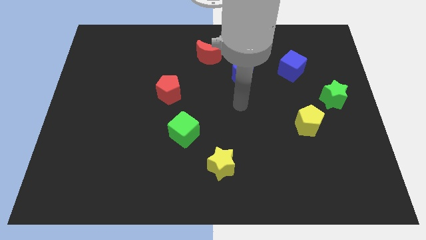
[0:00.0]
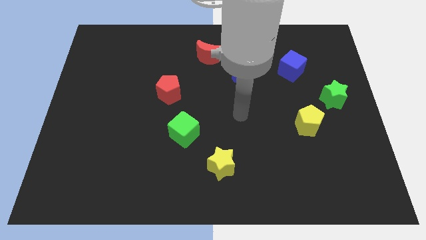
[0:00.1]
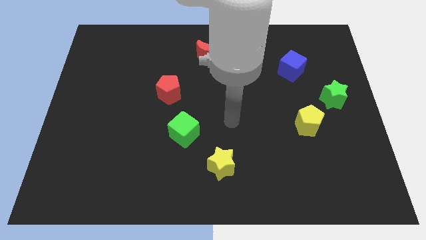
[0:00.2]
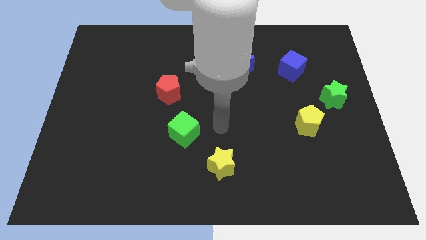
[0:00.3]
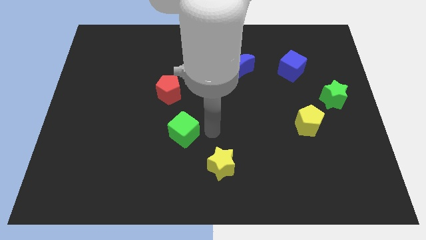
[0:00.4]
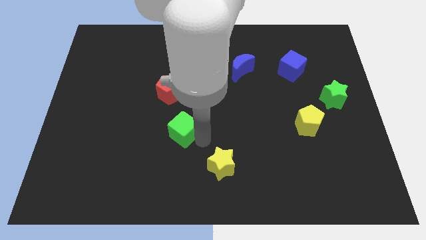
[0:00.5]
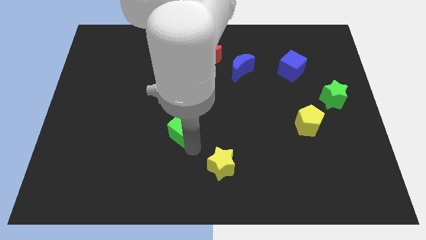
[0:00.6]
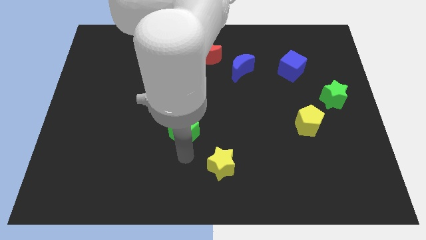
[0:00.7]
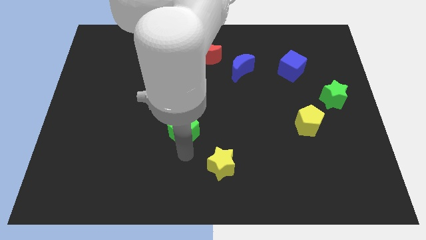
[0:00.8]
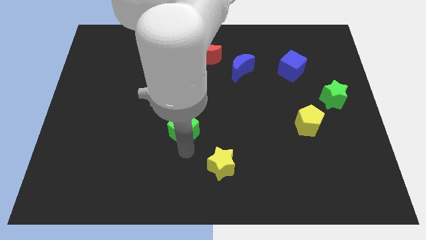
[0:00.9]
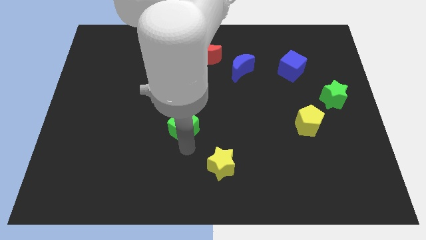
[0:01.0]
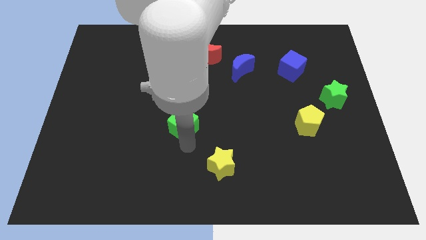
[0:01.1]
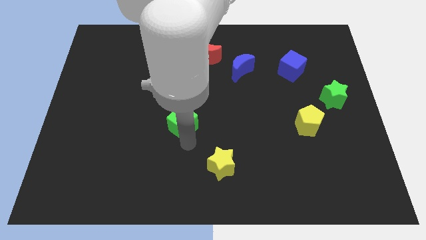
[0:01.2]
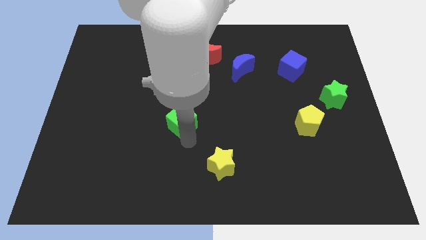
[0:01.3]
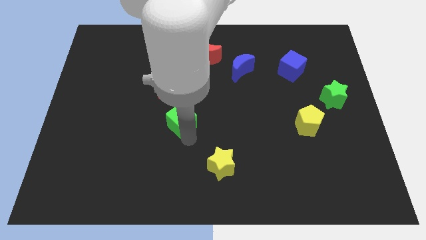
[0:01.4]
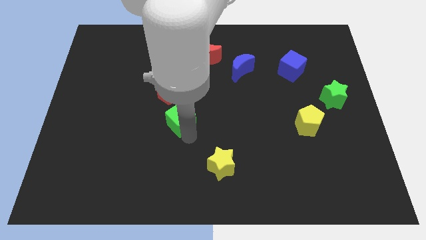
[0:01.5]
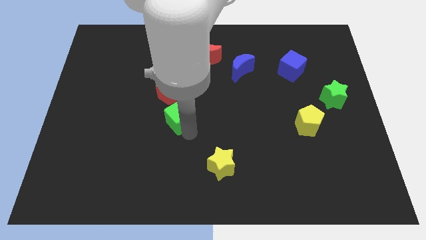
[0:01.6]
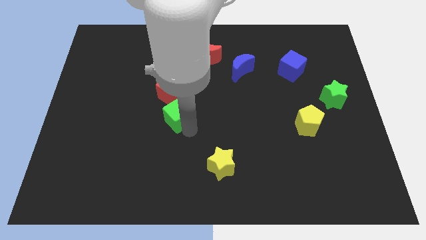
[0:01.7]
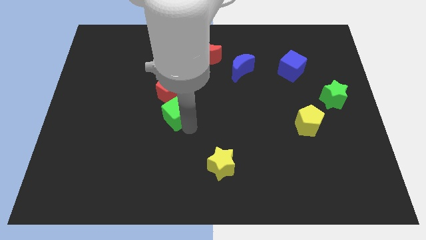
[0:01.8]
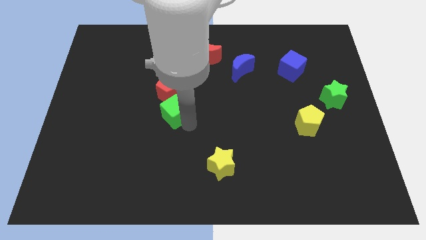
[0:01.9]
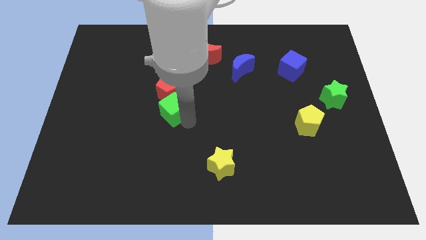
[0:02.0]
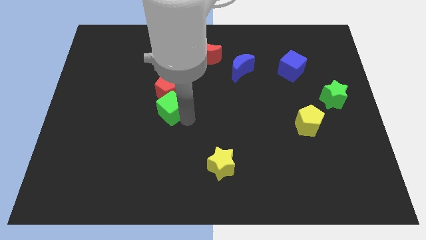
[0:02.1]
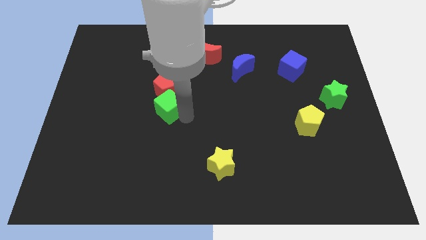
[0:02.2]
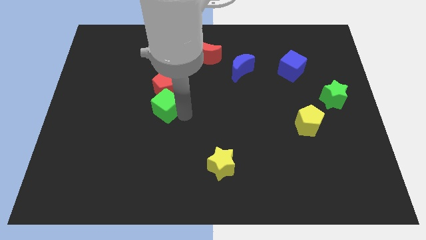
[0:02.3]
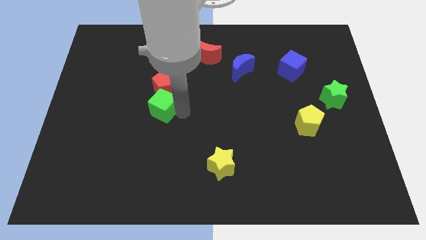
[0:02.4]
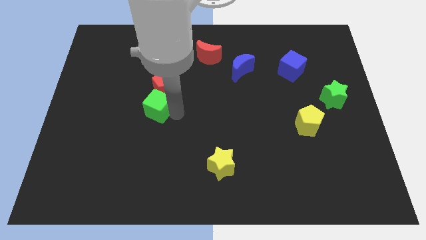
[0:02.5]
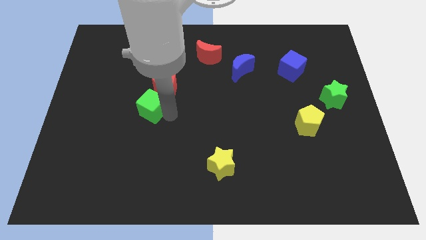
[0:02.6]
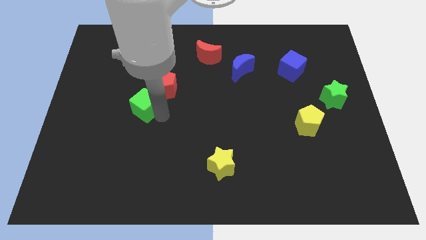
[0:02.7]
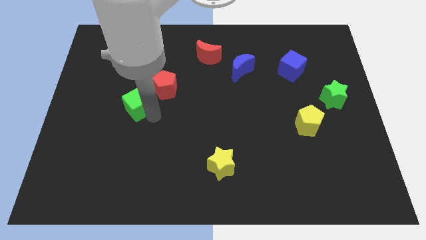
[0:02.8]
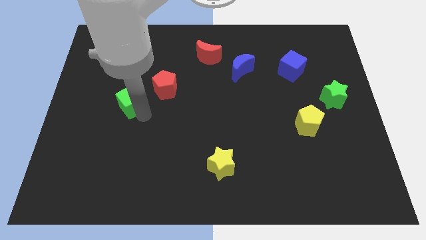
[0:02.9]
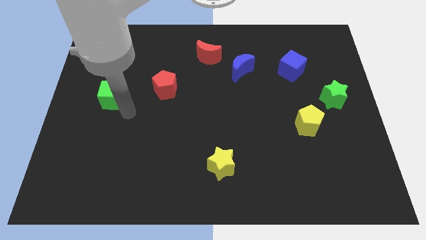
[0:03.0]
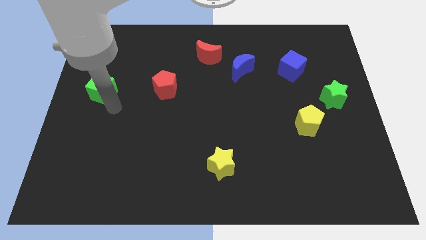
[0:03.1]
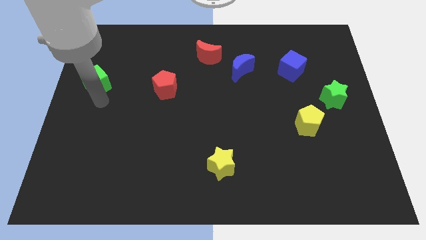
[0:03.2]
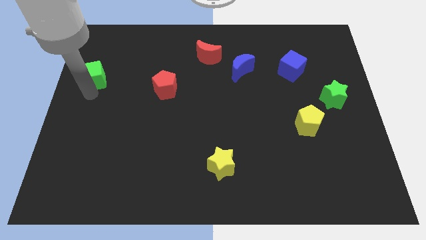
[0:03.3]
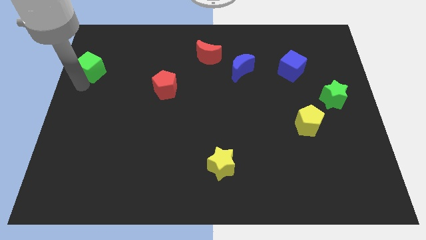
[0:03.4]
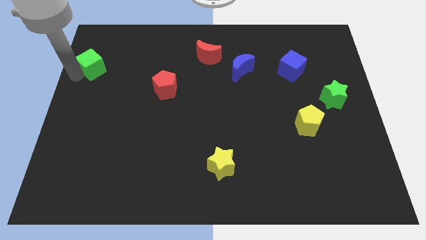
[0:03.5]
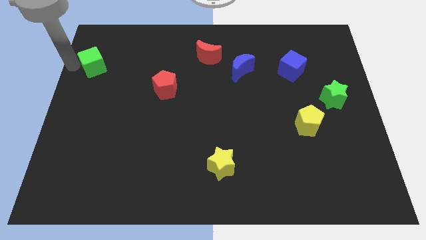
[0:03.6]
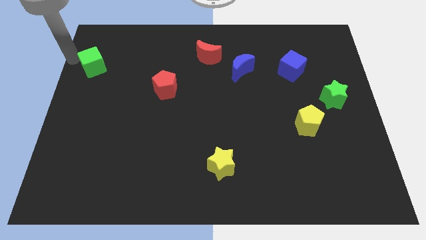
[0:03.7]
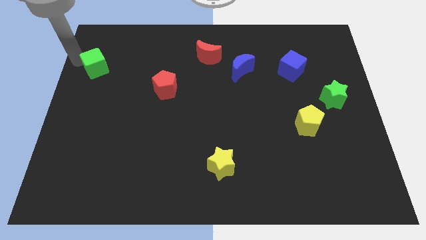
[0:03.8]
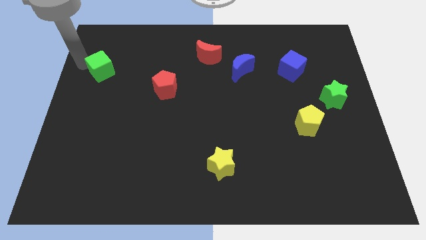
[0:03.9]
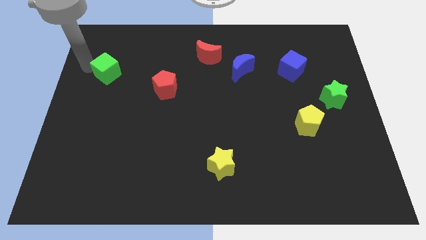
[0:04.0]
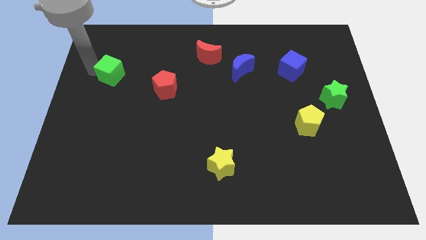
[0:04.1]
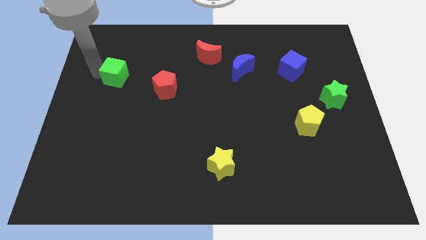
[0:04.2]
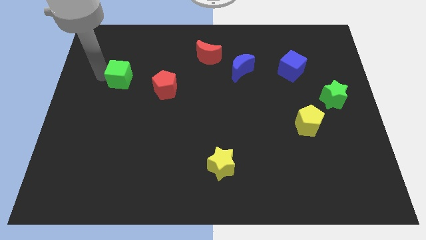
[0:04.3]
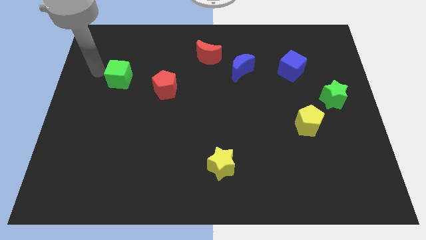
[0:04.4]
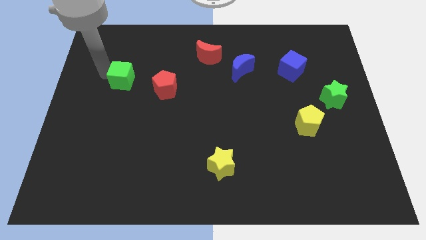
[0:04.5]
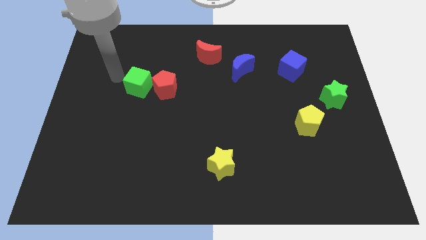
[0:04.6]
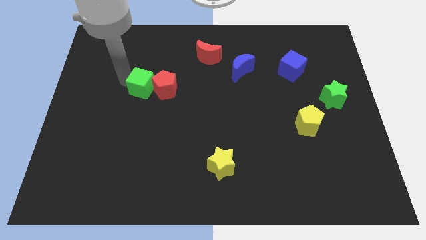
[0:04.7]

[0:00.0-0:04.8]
push the green cube somewhat up

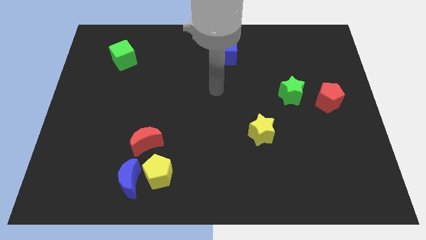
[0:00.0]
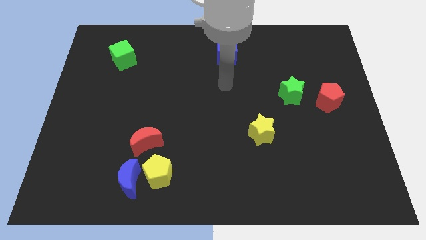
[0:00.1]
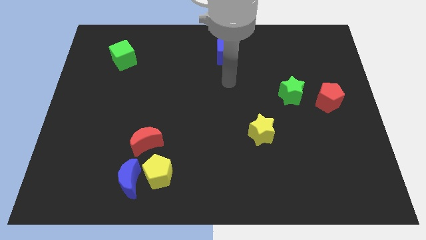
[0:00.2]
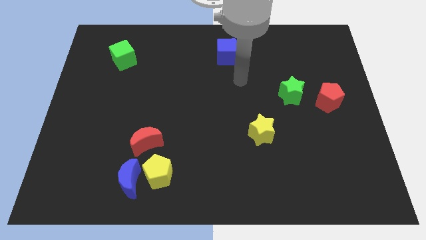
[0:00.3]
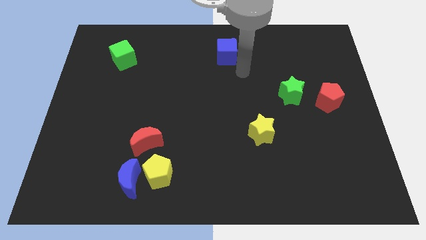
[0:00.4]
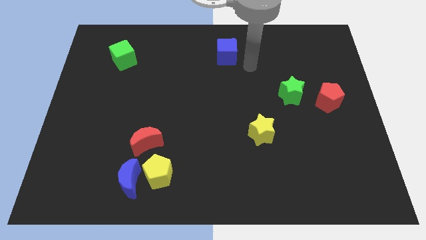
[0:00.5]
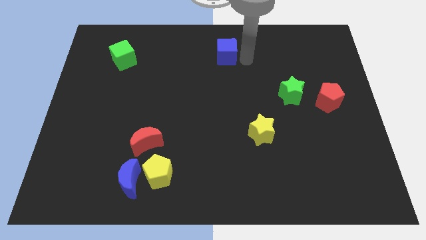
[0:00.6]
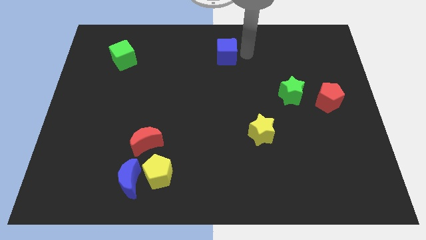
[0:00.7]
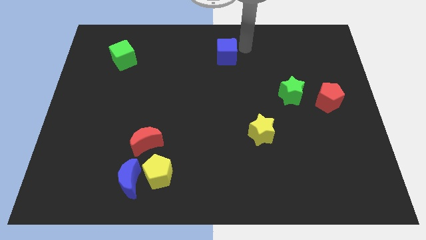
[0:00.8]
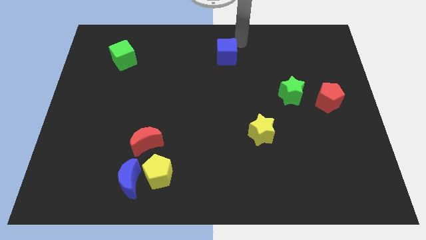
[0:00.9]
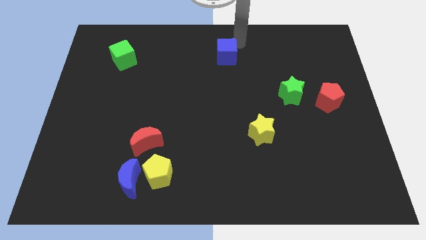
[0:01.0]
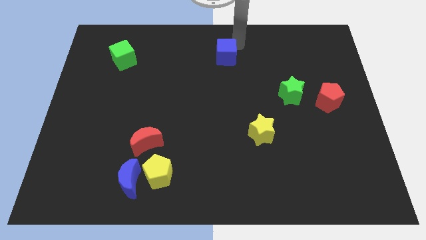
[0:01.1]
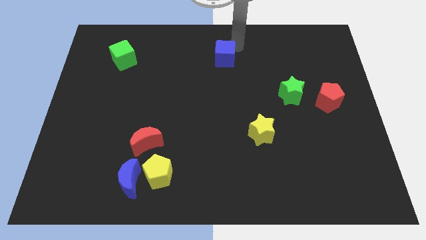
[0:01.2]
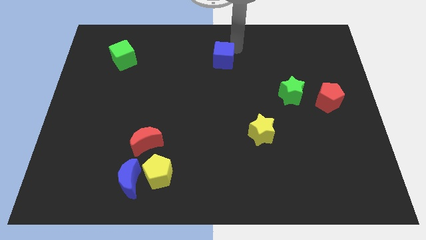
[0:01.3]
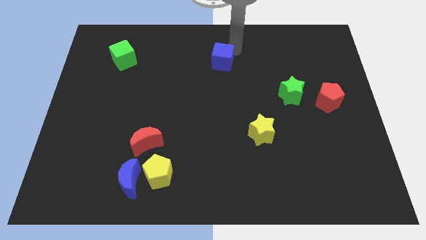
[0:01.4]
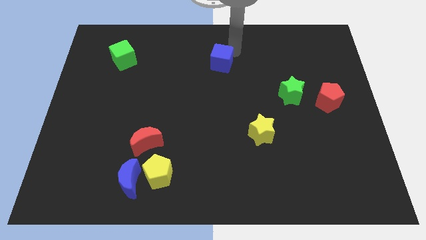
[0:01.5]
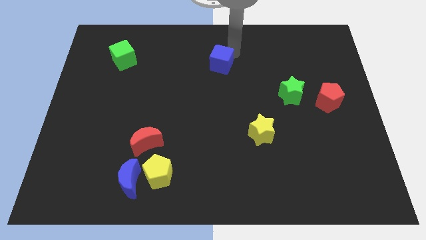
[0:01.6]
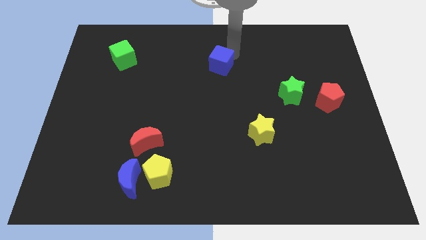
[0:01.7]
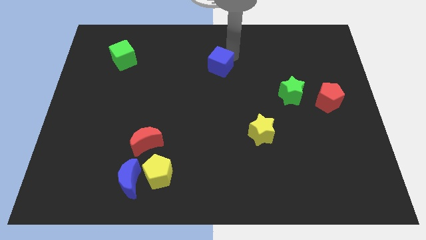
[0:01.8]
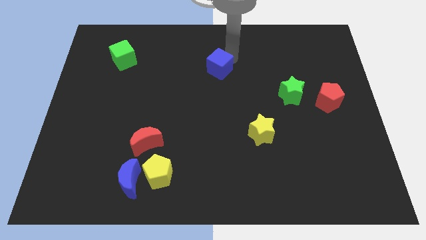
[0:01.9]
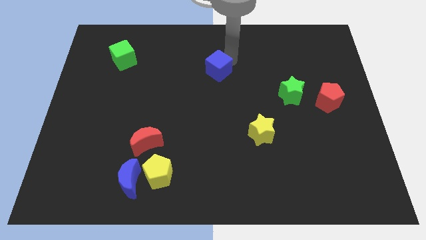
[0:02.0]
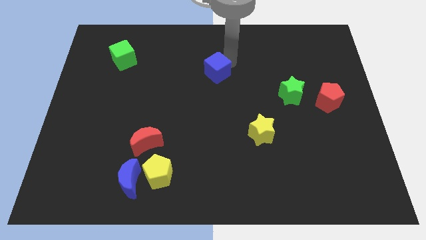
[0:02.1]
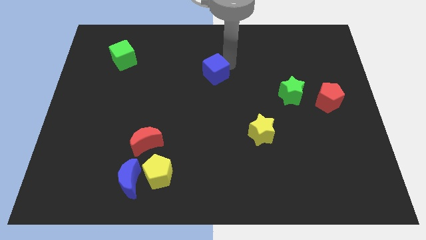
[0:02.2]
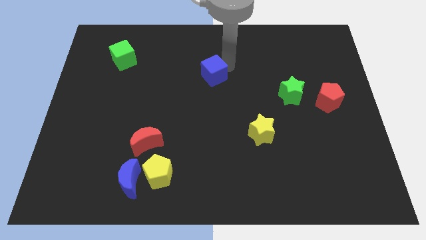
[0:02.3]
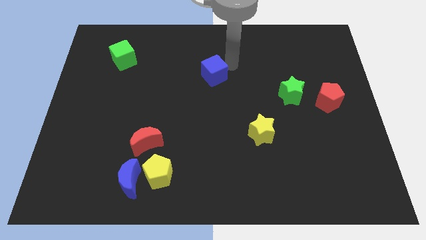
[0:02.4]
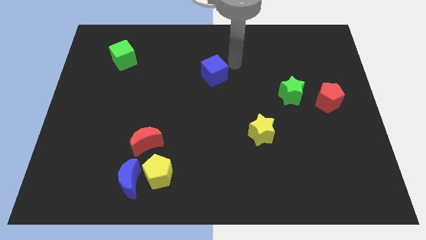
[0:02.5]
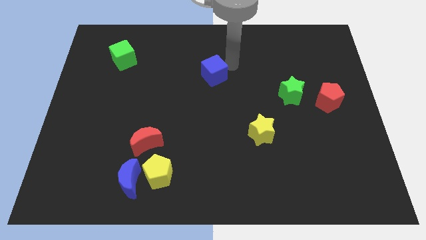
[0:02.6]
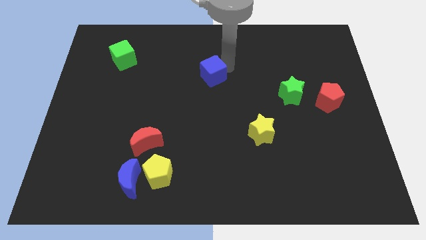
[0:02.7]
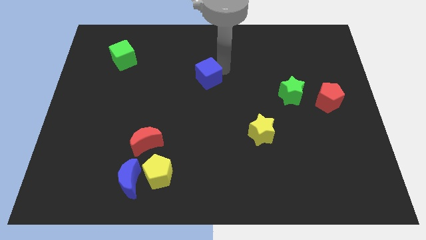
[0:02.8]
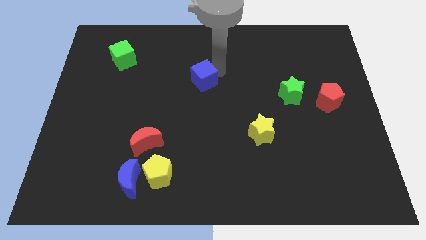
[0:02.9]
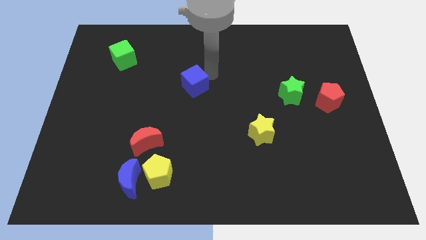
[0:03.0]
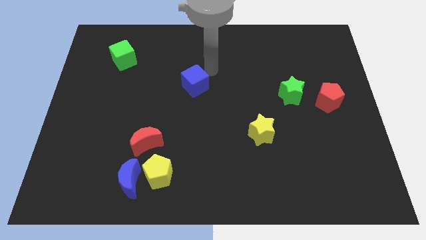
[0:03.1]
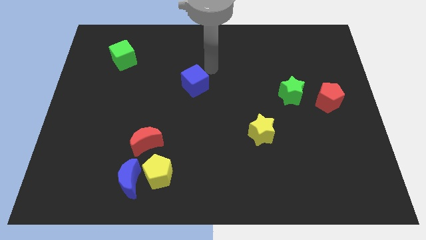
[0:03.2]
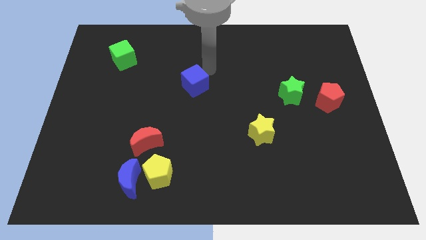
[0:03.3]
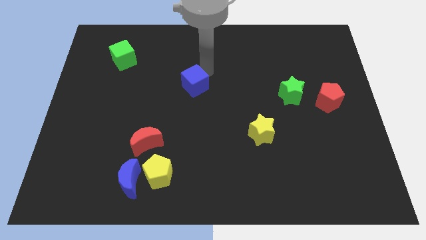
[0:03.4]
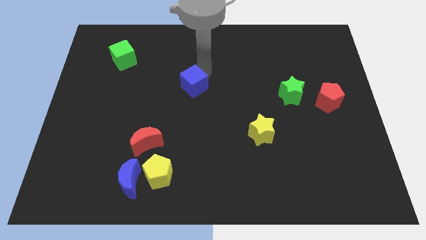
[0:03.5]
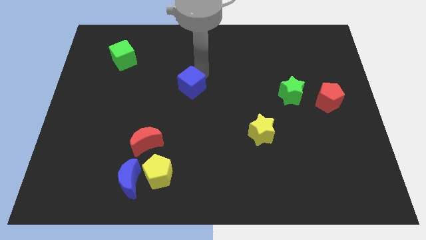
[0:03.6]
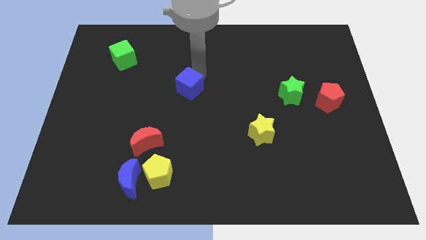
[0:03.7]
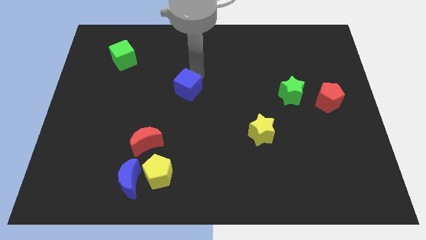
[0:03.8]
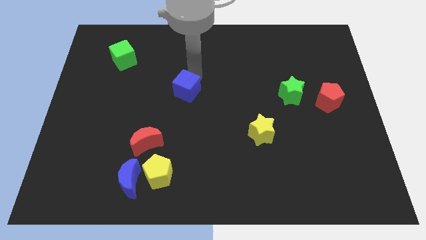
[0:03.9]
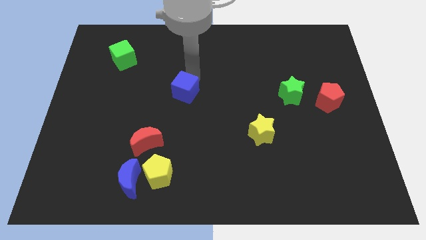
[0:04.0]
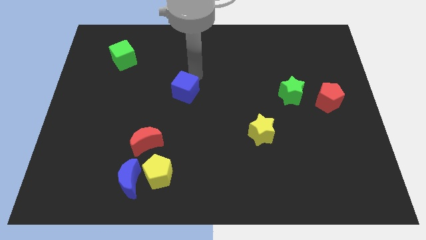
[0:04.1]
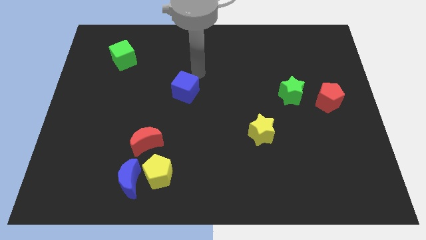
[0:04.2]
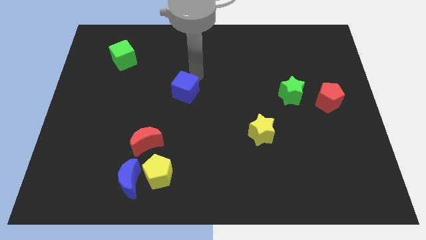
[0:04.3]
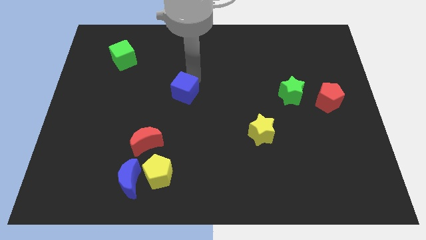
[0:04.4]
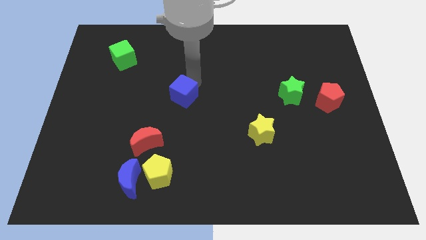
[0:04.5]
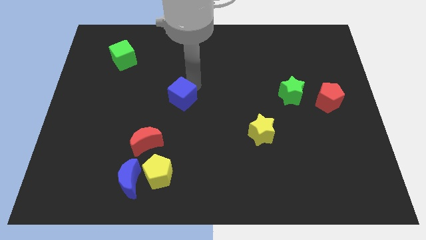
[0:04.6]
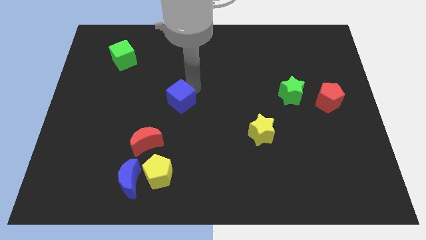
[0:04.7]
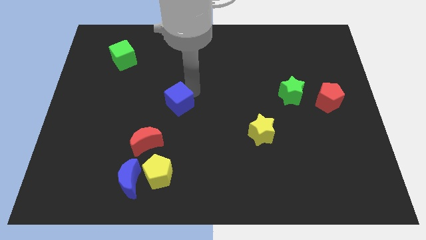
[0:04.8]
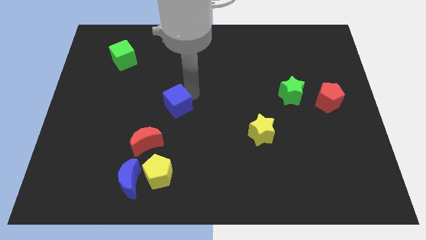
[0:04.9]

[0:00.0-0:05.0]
push the blue cube downwards and then left
